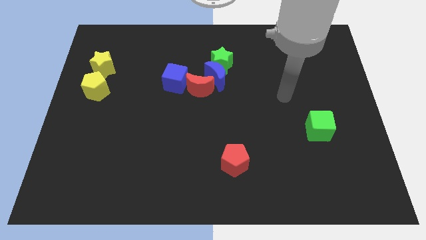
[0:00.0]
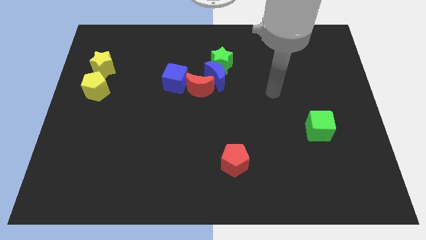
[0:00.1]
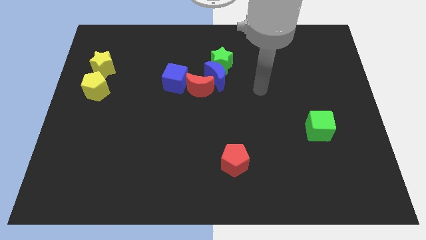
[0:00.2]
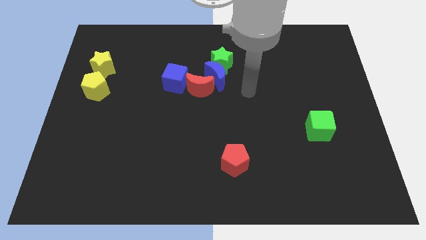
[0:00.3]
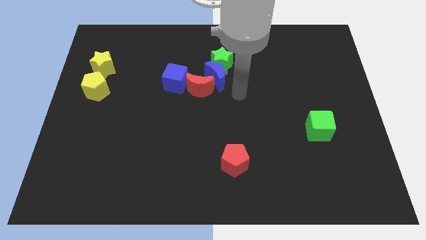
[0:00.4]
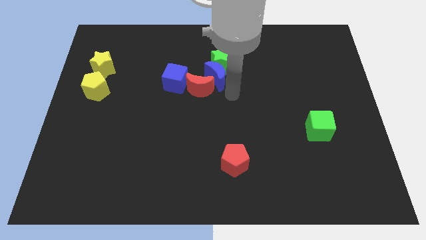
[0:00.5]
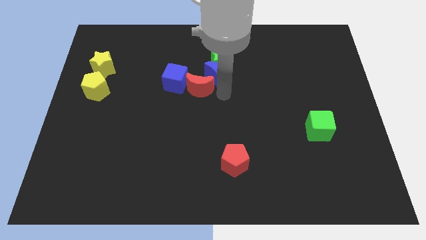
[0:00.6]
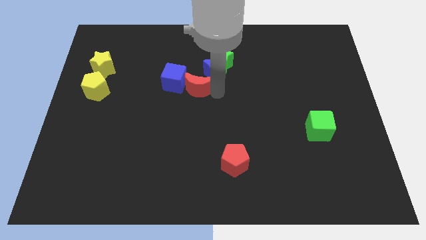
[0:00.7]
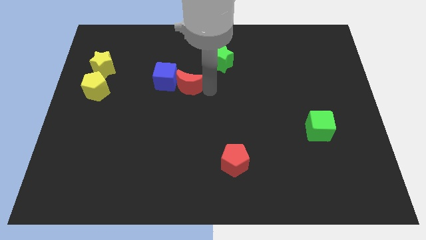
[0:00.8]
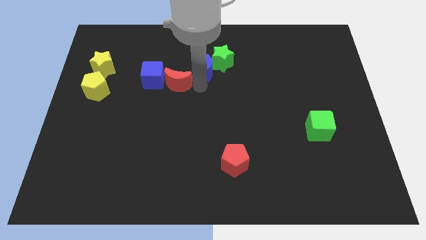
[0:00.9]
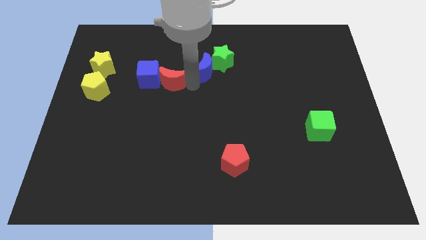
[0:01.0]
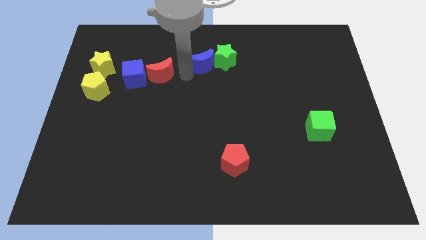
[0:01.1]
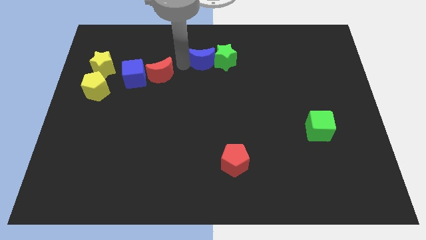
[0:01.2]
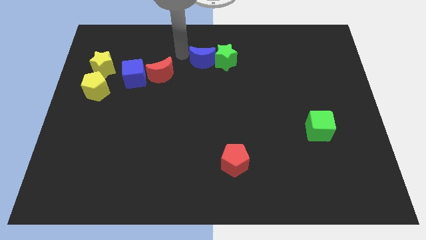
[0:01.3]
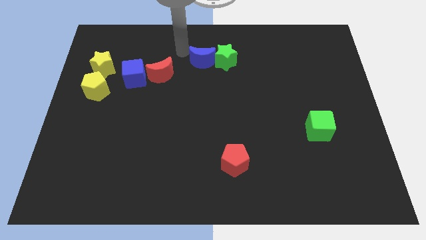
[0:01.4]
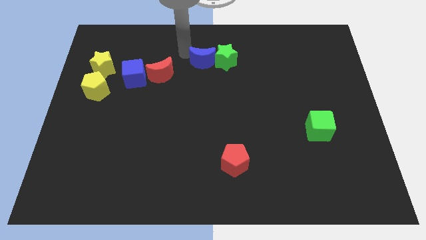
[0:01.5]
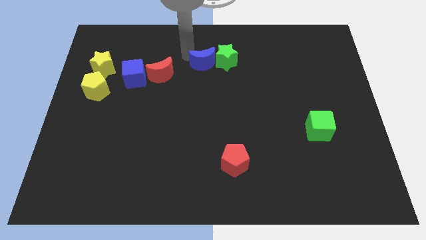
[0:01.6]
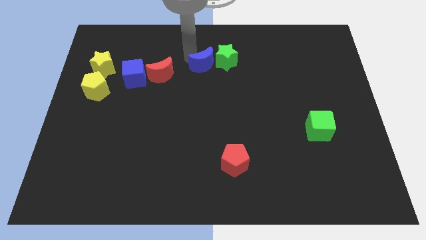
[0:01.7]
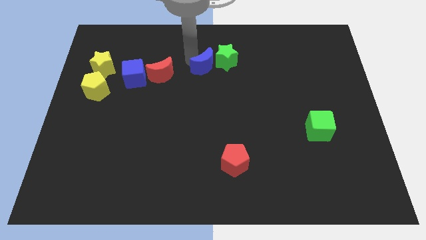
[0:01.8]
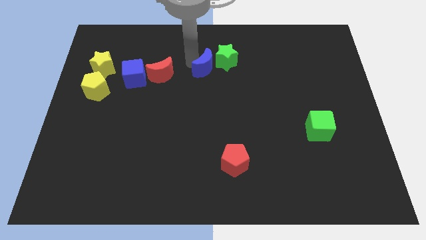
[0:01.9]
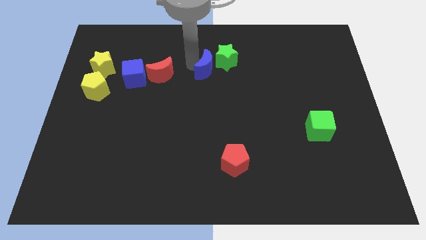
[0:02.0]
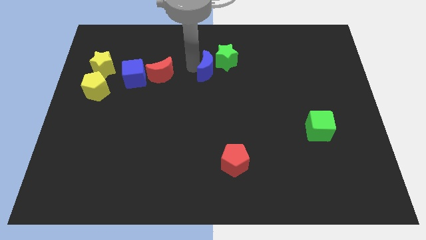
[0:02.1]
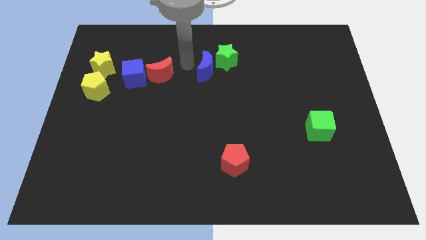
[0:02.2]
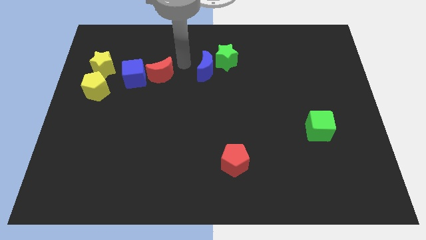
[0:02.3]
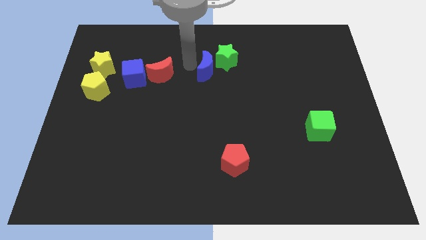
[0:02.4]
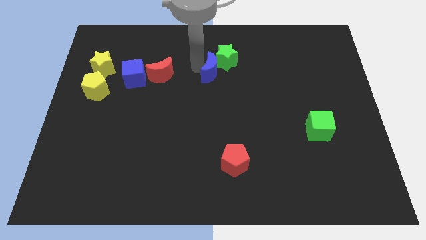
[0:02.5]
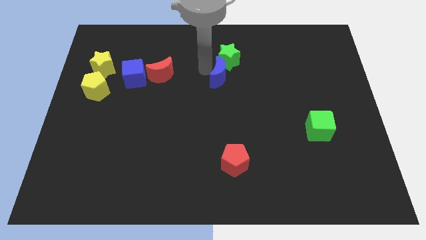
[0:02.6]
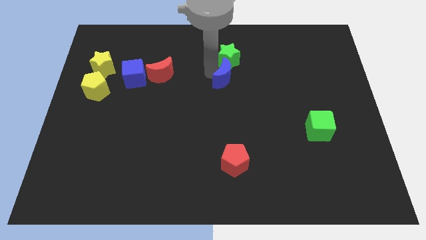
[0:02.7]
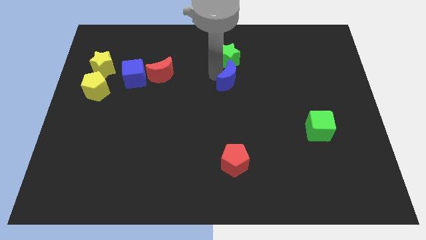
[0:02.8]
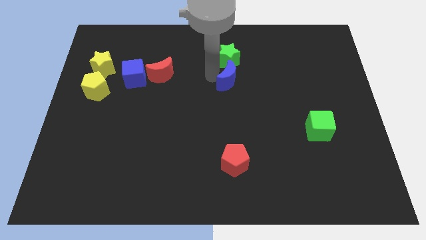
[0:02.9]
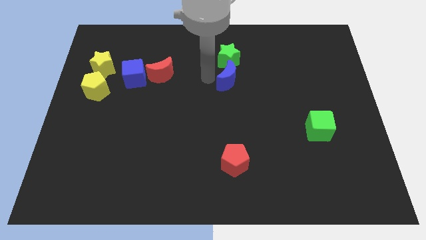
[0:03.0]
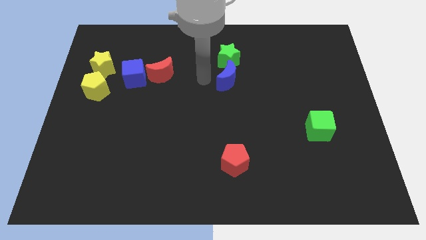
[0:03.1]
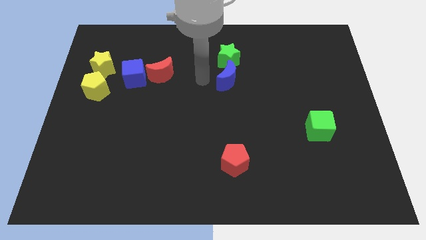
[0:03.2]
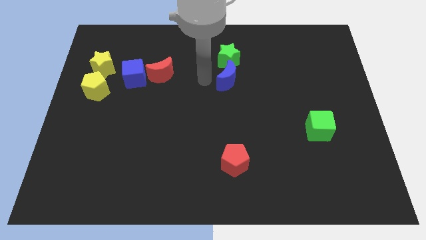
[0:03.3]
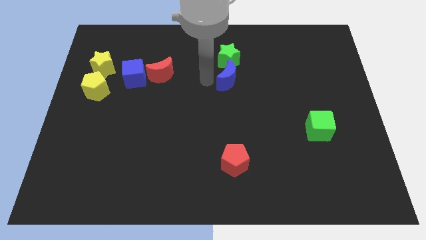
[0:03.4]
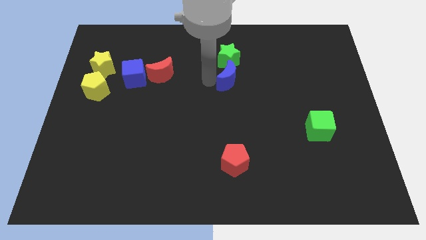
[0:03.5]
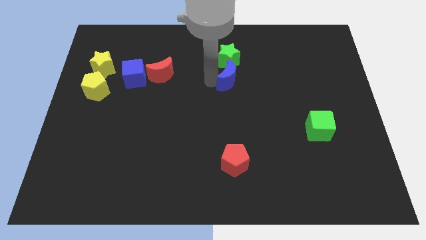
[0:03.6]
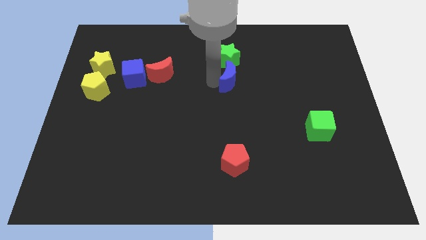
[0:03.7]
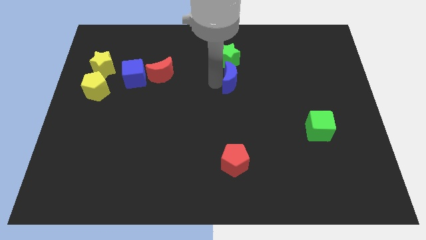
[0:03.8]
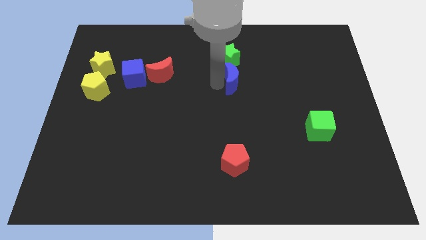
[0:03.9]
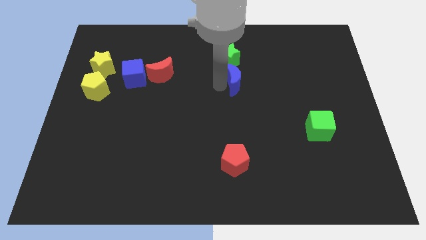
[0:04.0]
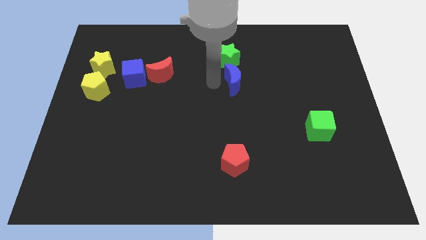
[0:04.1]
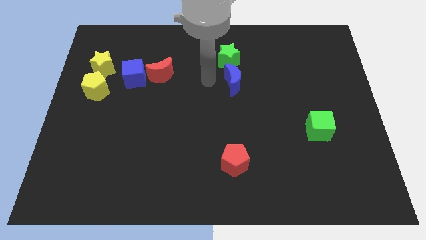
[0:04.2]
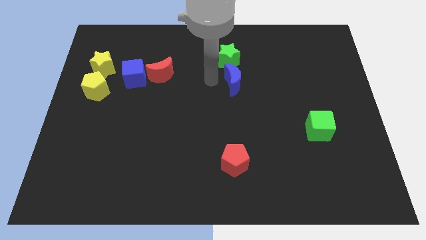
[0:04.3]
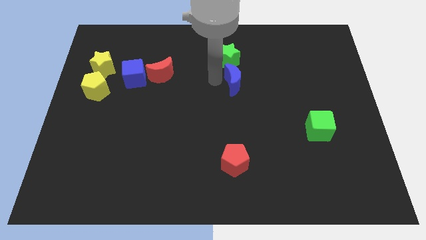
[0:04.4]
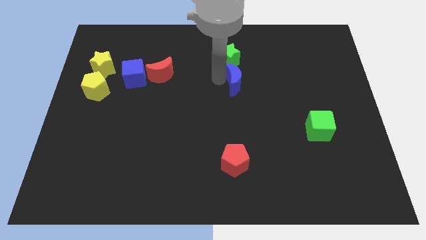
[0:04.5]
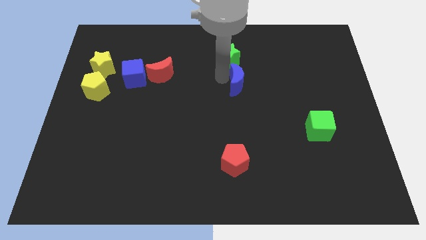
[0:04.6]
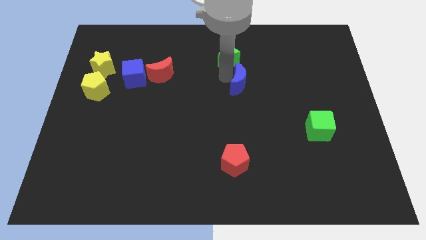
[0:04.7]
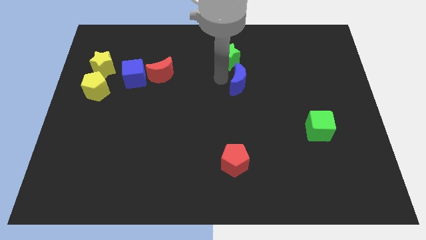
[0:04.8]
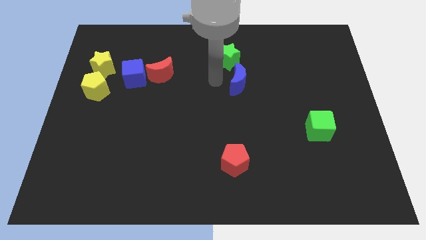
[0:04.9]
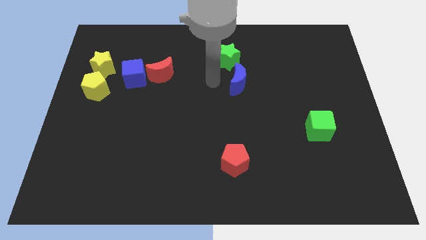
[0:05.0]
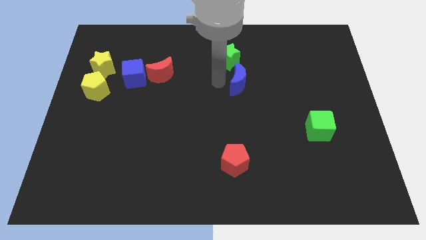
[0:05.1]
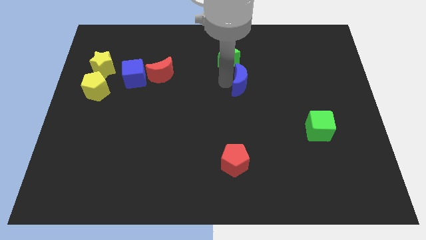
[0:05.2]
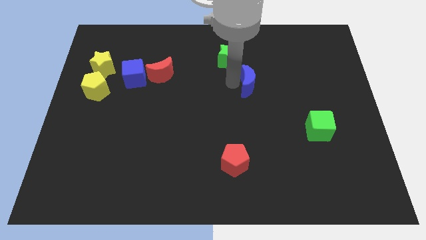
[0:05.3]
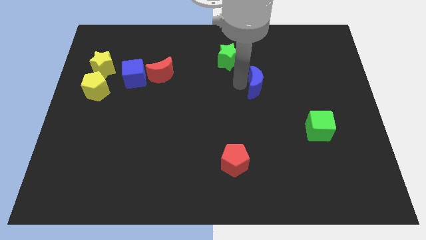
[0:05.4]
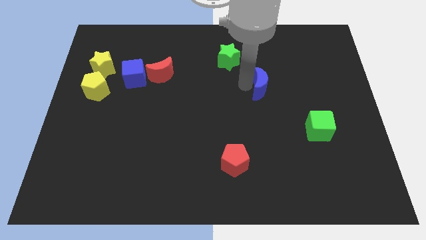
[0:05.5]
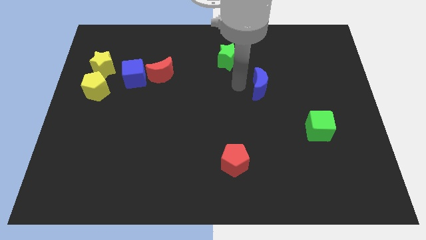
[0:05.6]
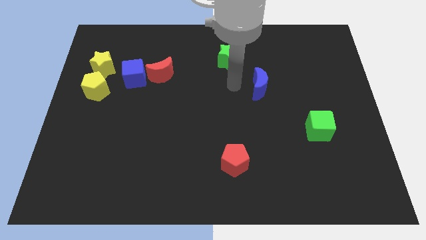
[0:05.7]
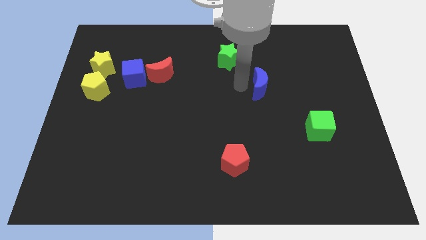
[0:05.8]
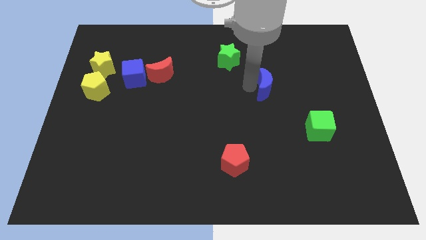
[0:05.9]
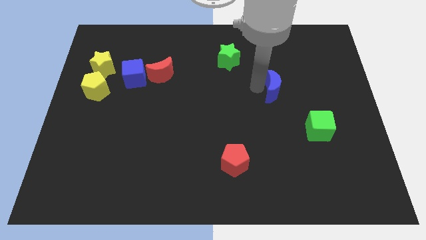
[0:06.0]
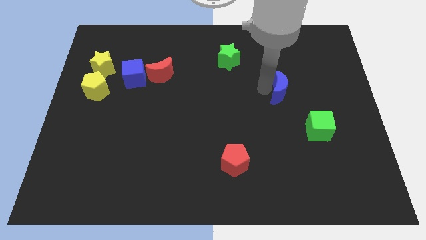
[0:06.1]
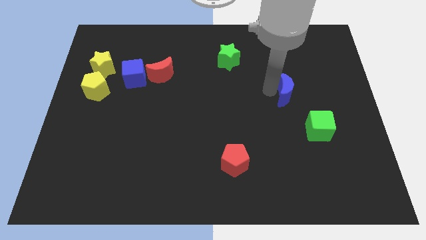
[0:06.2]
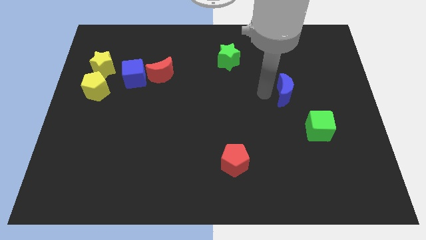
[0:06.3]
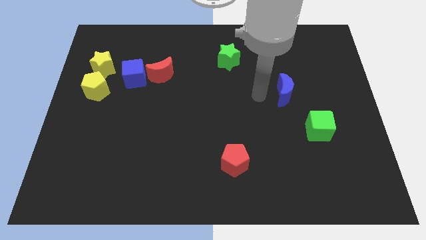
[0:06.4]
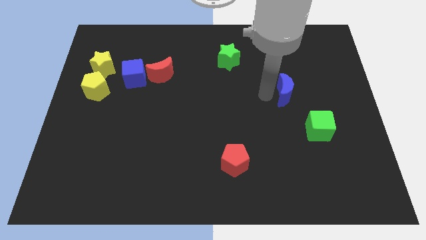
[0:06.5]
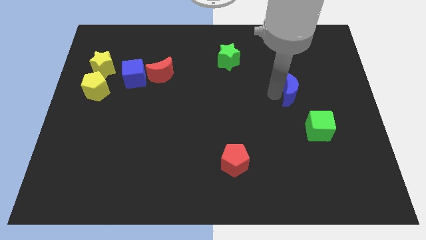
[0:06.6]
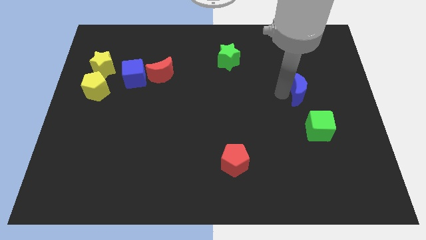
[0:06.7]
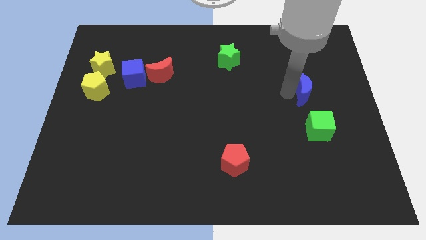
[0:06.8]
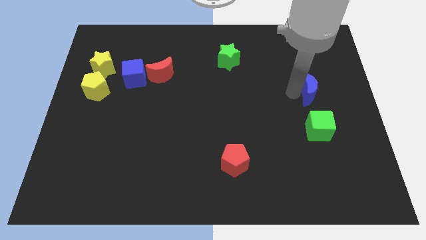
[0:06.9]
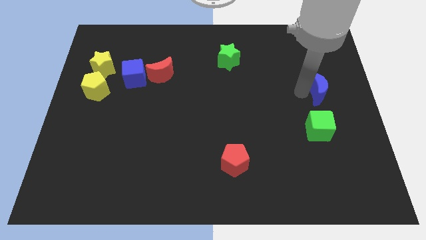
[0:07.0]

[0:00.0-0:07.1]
move the blue moon to the right side
